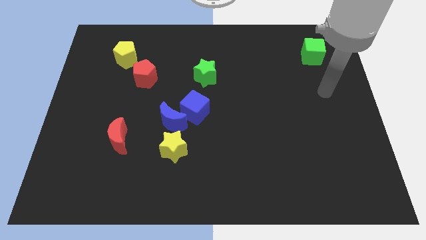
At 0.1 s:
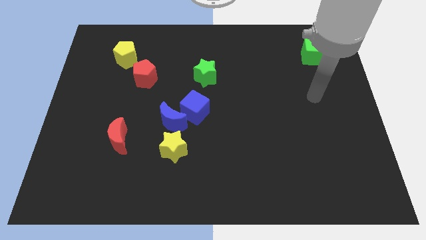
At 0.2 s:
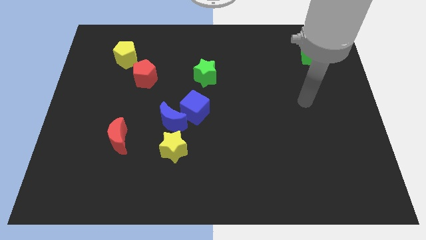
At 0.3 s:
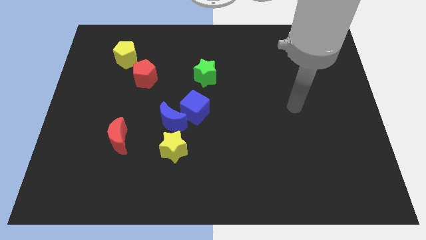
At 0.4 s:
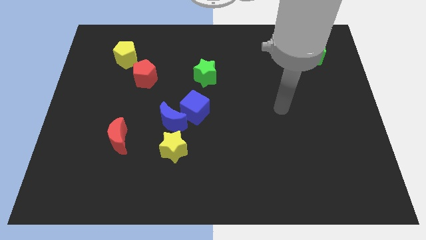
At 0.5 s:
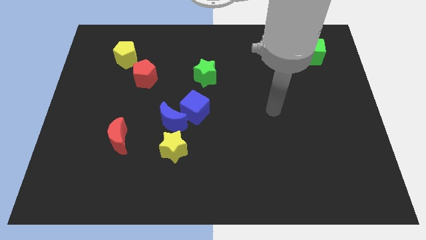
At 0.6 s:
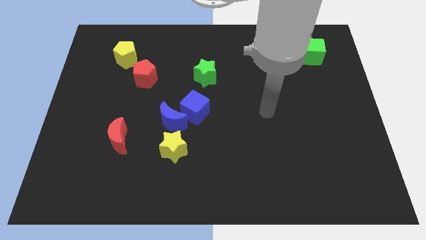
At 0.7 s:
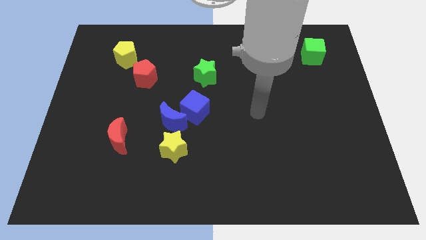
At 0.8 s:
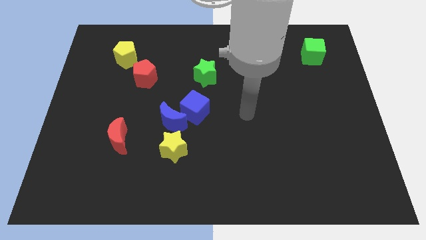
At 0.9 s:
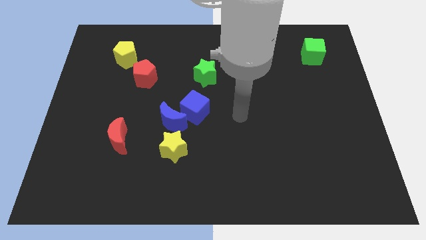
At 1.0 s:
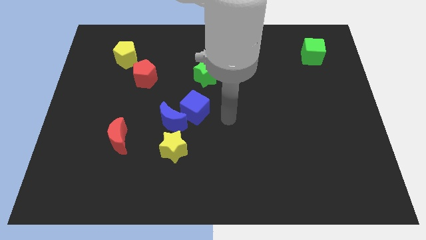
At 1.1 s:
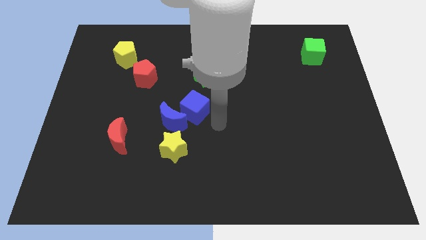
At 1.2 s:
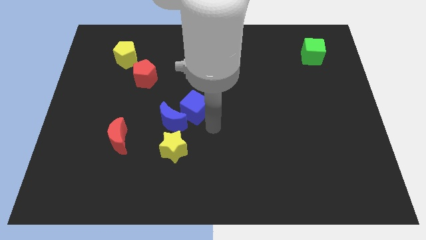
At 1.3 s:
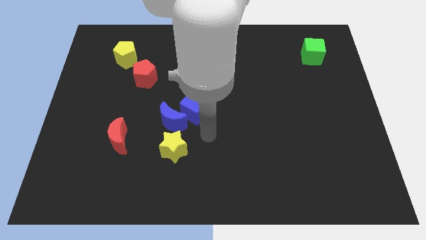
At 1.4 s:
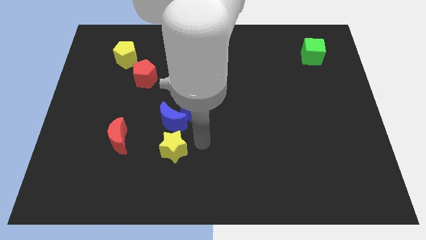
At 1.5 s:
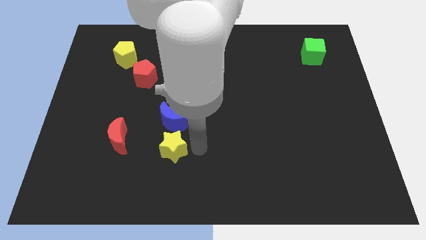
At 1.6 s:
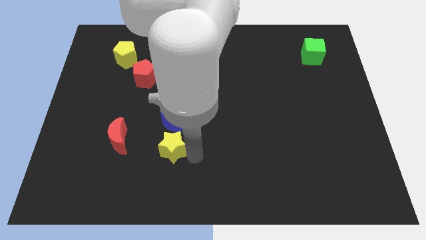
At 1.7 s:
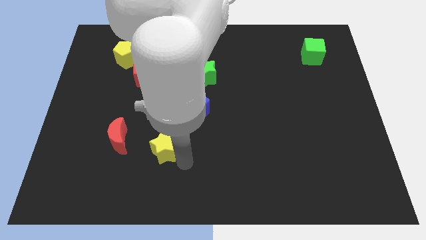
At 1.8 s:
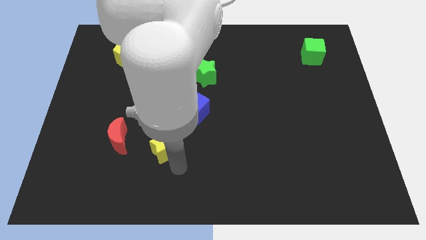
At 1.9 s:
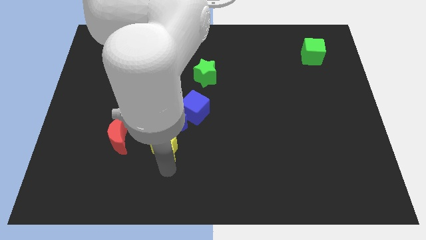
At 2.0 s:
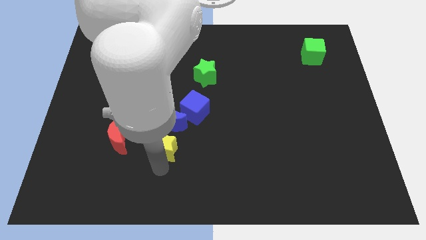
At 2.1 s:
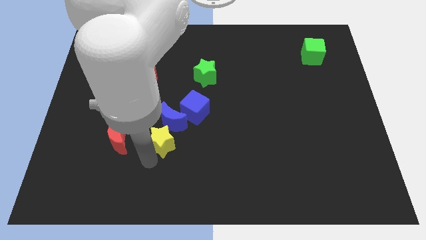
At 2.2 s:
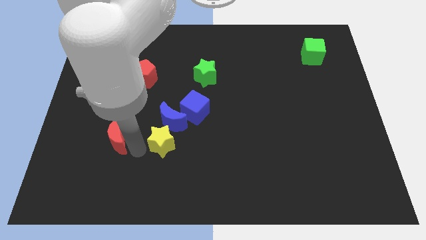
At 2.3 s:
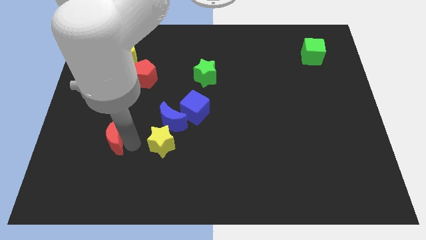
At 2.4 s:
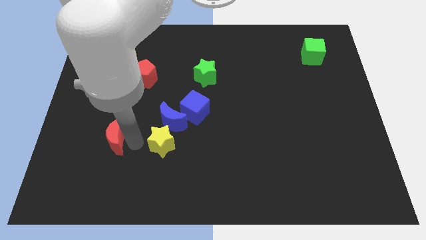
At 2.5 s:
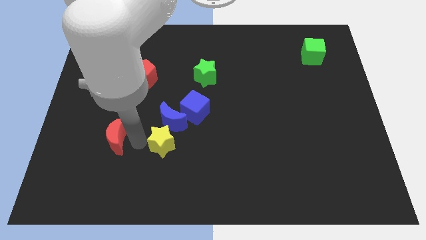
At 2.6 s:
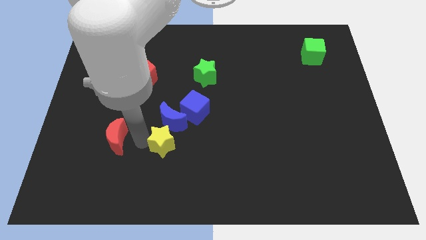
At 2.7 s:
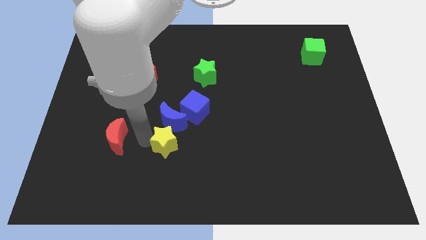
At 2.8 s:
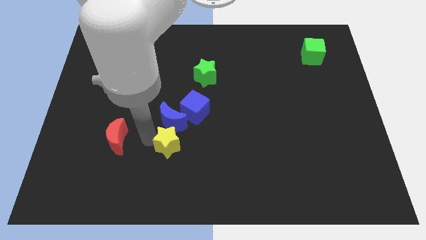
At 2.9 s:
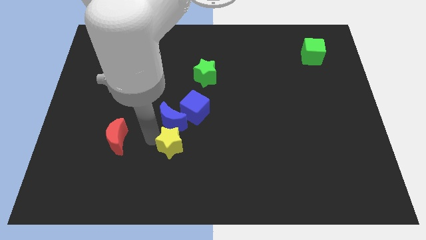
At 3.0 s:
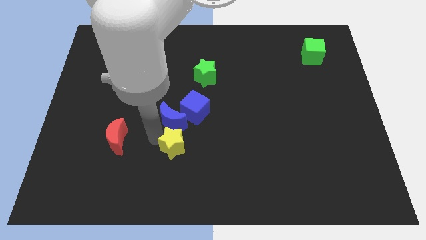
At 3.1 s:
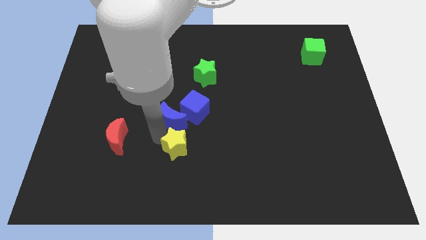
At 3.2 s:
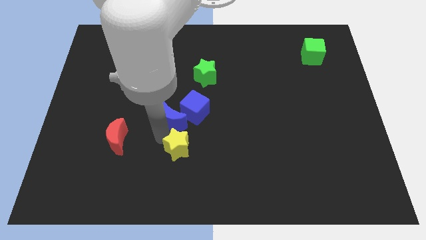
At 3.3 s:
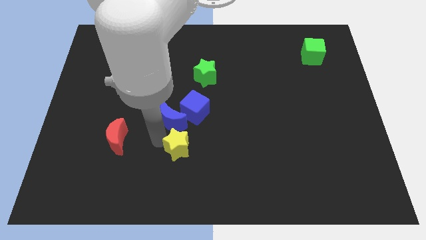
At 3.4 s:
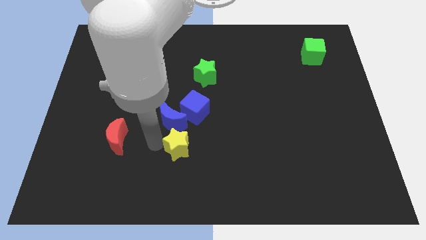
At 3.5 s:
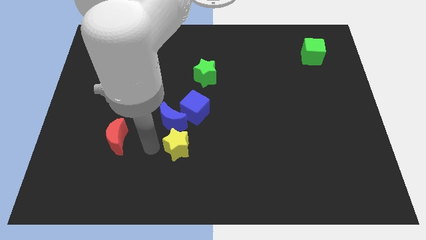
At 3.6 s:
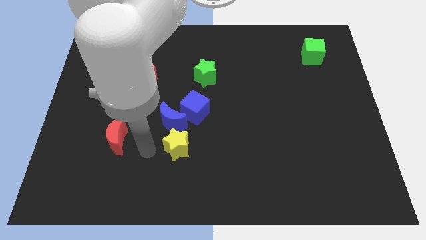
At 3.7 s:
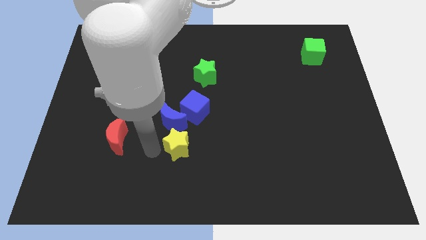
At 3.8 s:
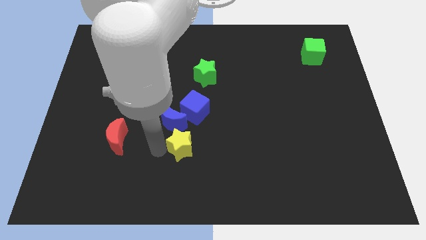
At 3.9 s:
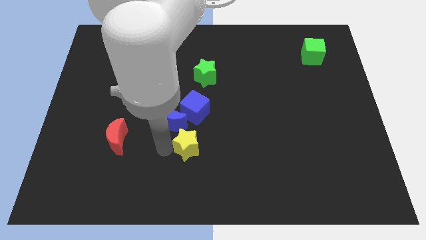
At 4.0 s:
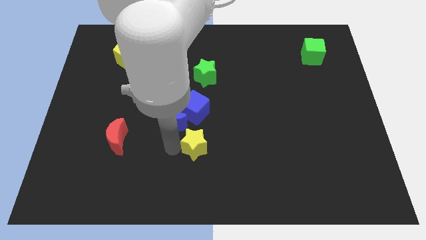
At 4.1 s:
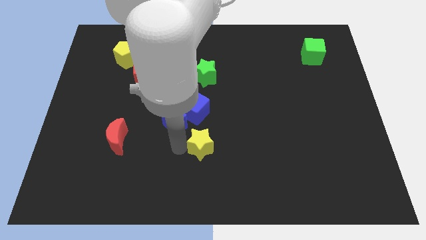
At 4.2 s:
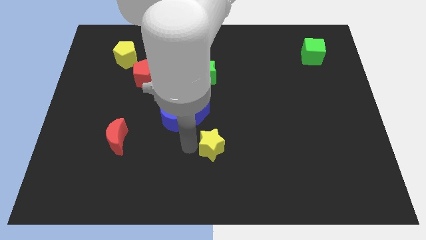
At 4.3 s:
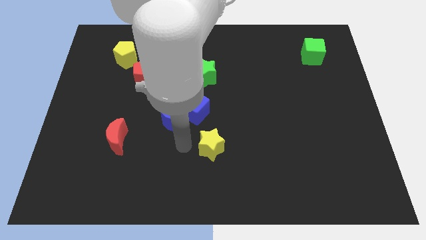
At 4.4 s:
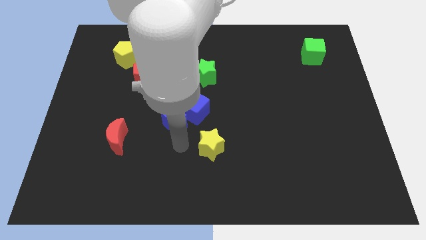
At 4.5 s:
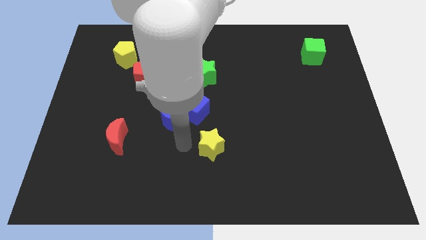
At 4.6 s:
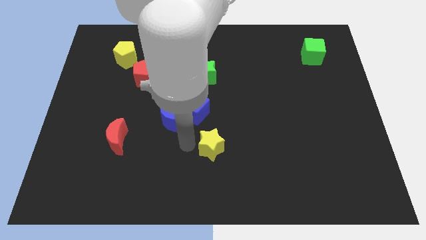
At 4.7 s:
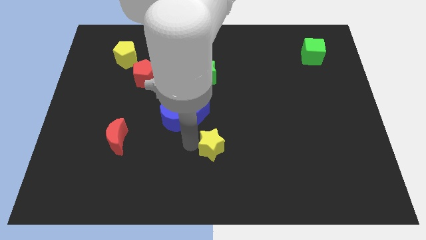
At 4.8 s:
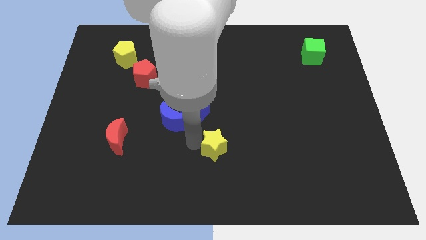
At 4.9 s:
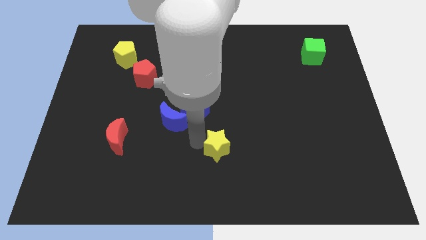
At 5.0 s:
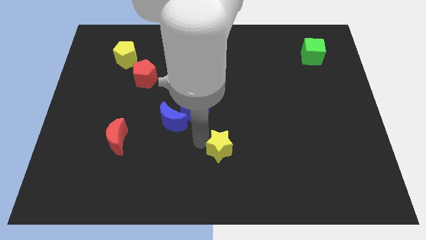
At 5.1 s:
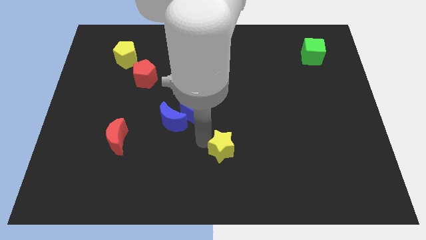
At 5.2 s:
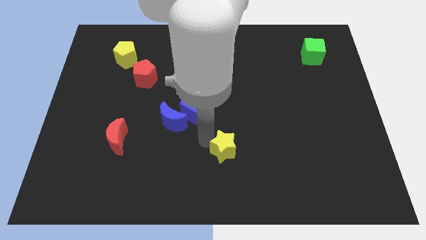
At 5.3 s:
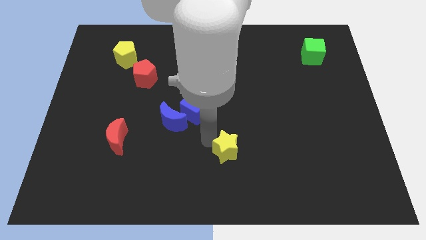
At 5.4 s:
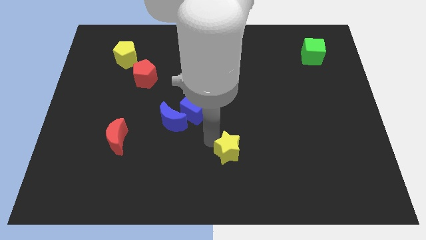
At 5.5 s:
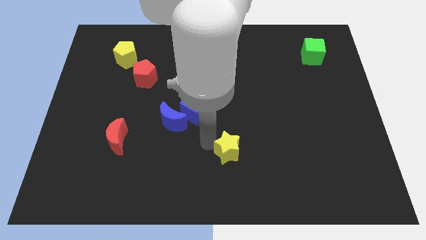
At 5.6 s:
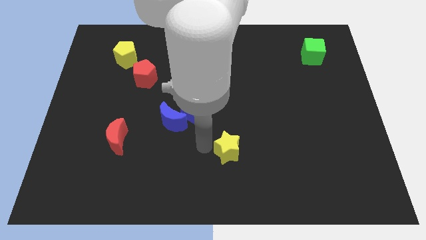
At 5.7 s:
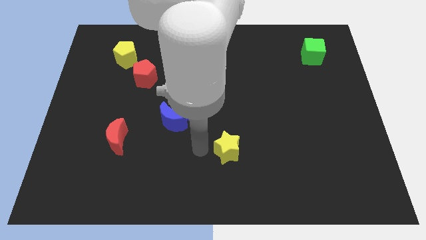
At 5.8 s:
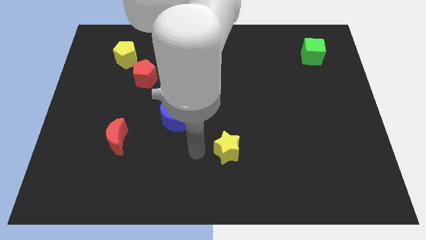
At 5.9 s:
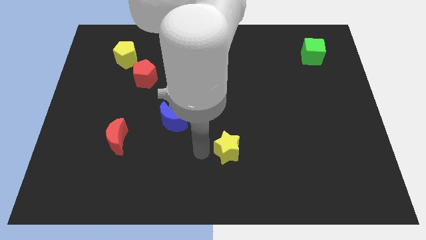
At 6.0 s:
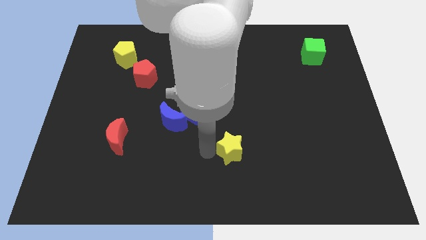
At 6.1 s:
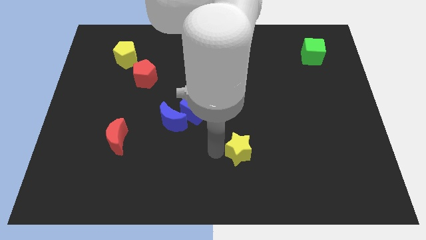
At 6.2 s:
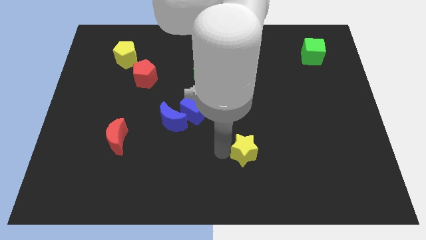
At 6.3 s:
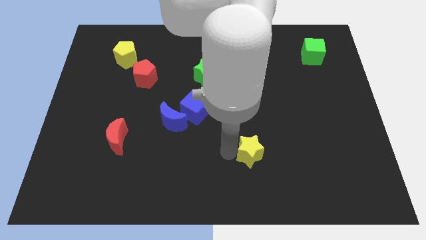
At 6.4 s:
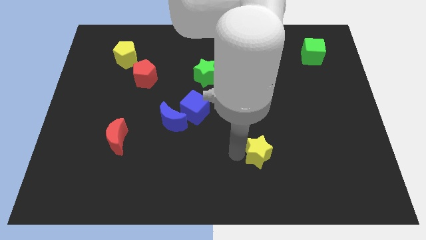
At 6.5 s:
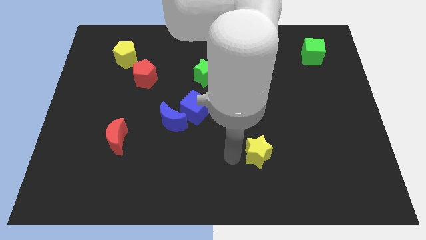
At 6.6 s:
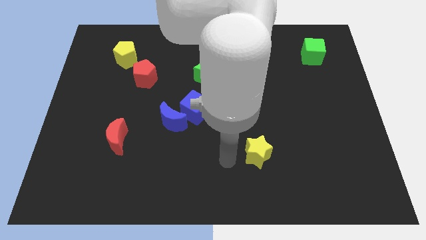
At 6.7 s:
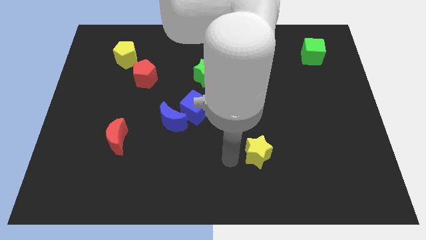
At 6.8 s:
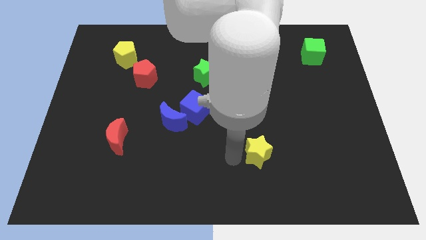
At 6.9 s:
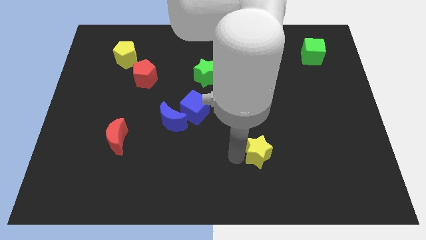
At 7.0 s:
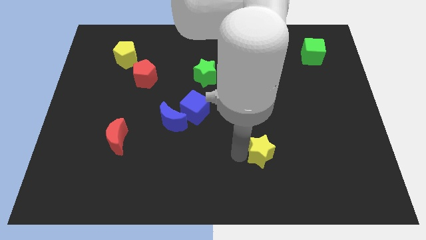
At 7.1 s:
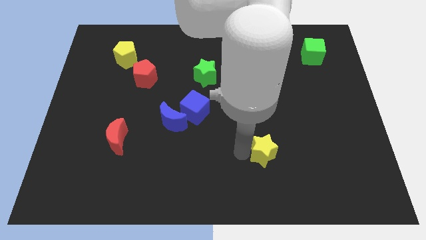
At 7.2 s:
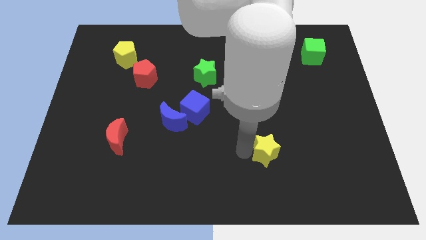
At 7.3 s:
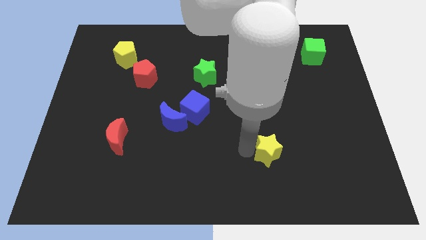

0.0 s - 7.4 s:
slide the yellow star right

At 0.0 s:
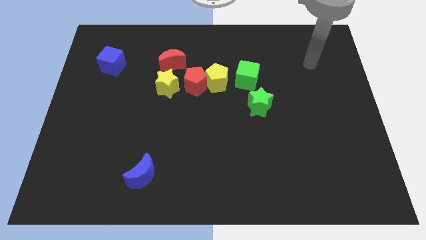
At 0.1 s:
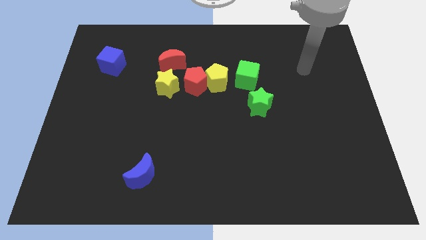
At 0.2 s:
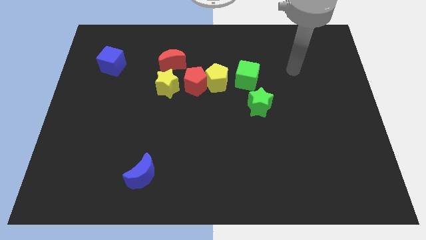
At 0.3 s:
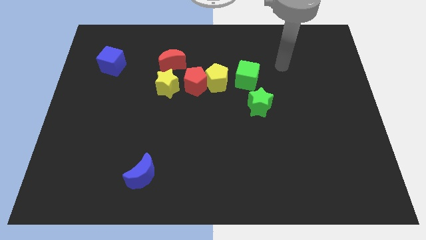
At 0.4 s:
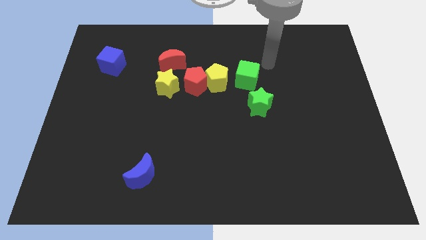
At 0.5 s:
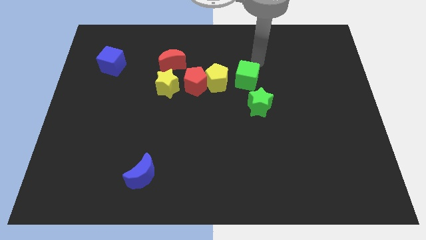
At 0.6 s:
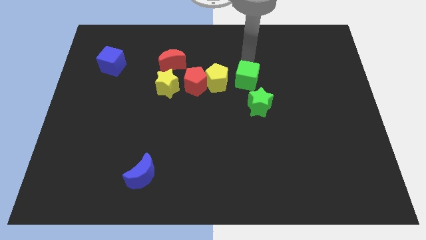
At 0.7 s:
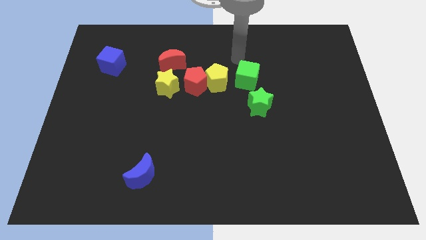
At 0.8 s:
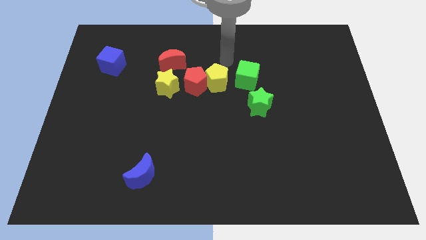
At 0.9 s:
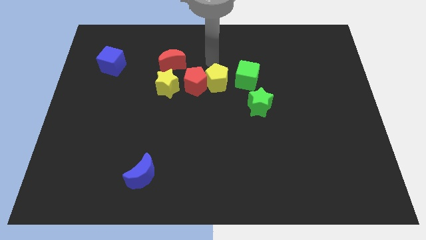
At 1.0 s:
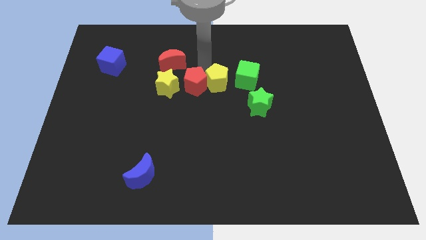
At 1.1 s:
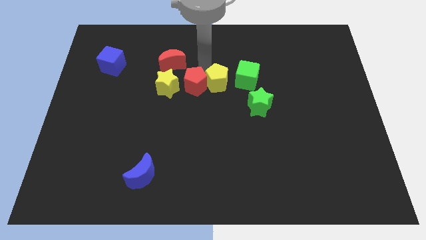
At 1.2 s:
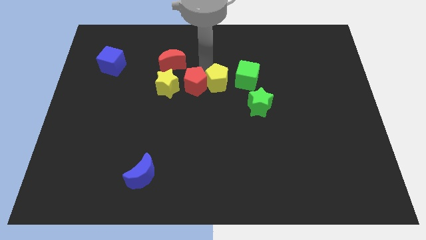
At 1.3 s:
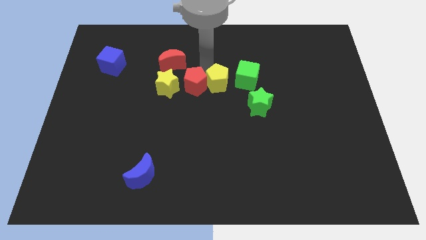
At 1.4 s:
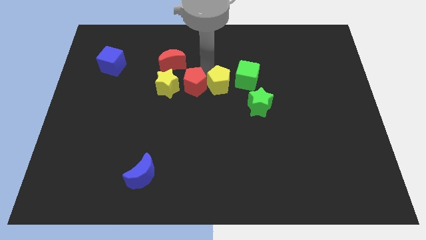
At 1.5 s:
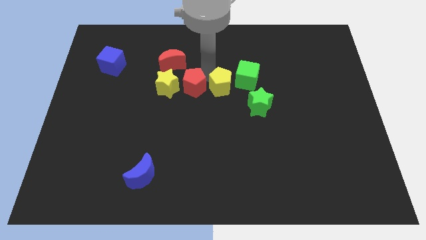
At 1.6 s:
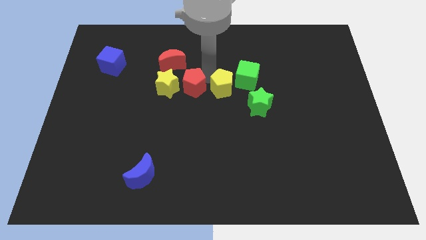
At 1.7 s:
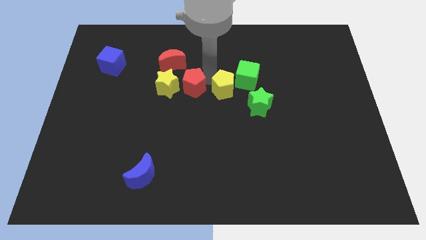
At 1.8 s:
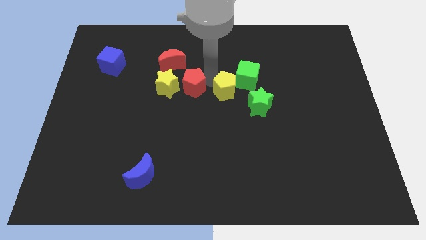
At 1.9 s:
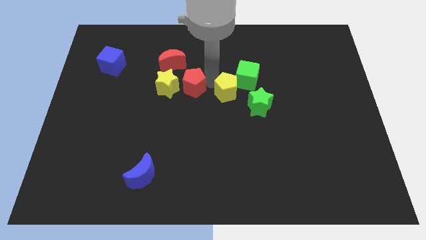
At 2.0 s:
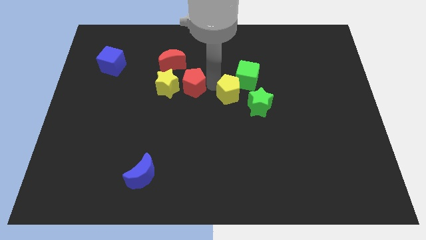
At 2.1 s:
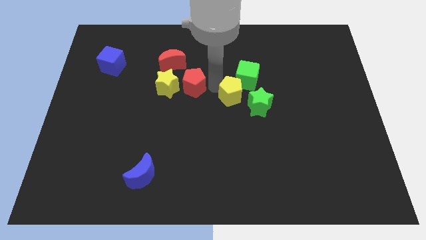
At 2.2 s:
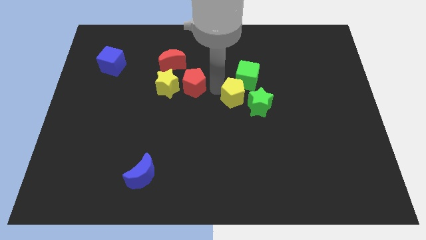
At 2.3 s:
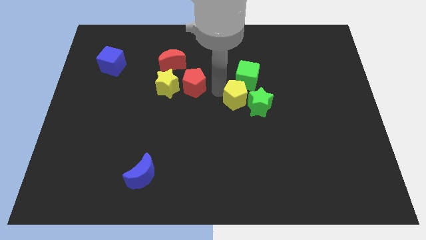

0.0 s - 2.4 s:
slide the yellow pentagon slightly down and then to the right
